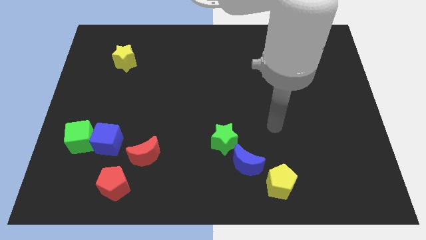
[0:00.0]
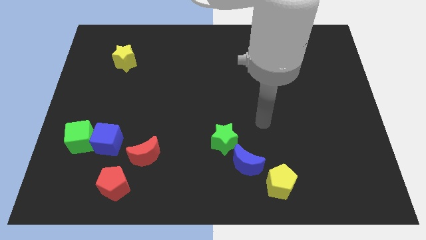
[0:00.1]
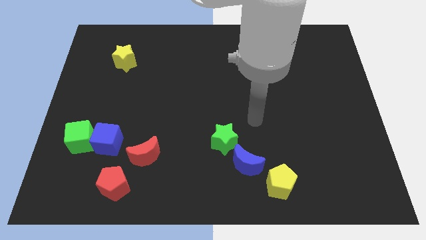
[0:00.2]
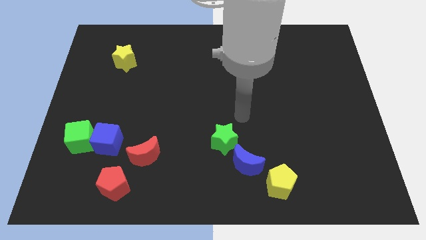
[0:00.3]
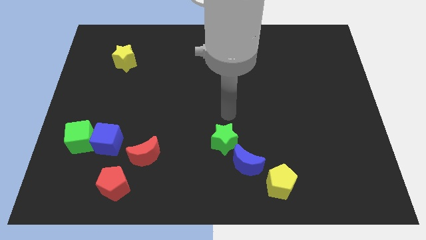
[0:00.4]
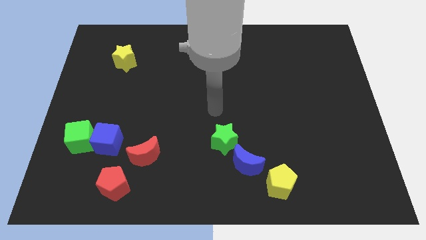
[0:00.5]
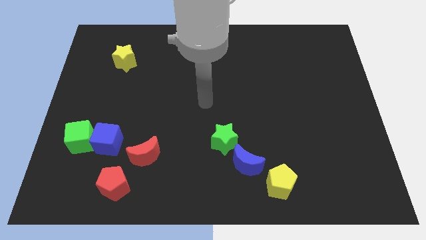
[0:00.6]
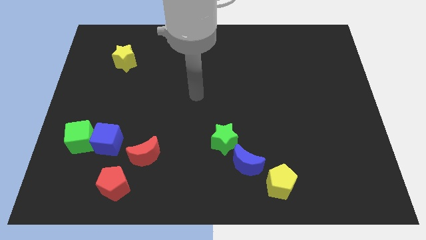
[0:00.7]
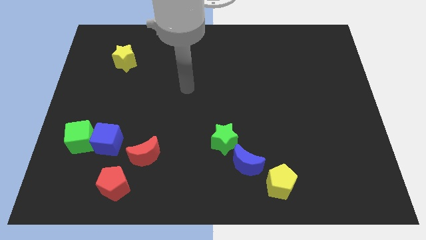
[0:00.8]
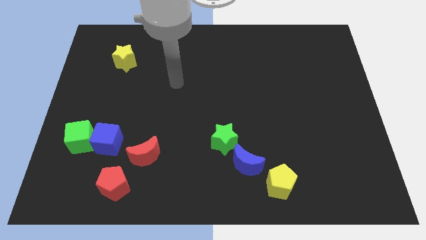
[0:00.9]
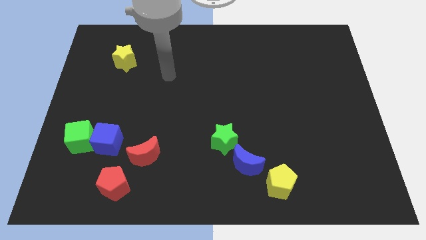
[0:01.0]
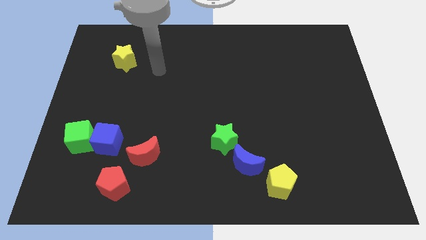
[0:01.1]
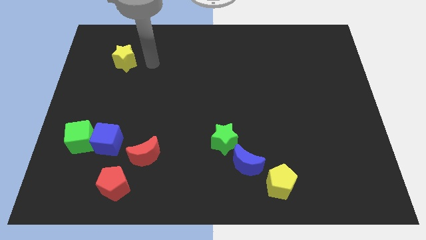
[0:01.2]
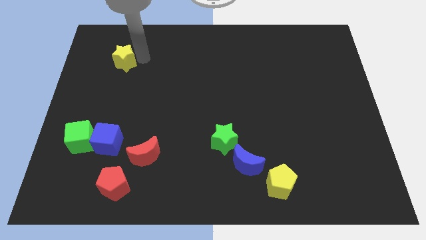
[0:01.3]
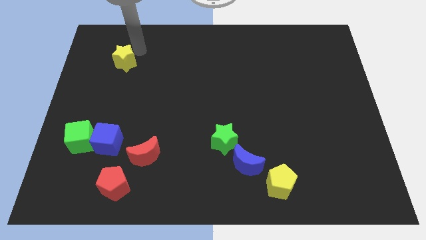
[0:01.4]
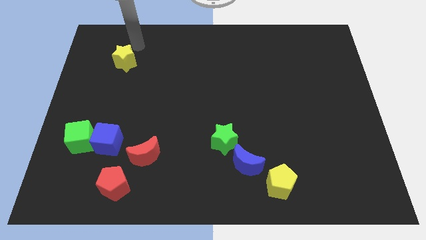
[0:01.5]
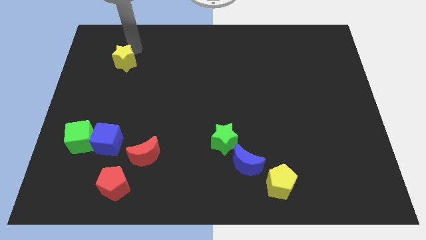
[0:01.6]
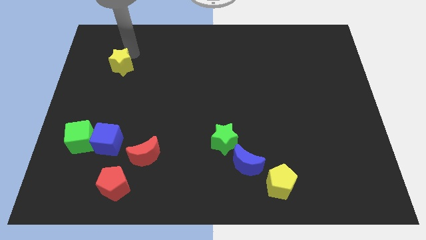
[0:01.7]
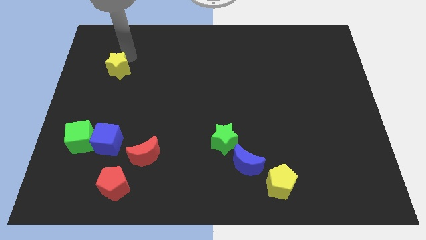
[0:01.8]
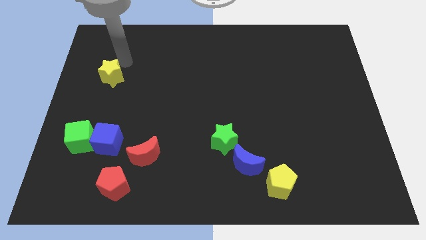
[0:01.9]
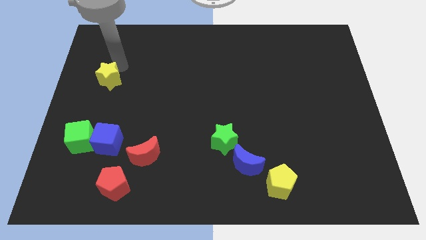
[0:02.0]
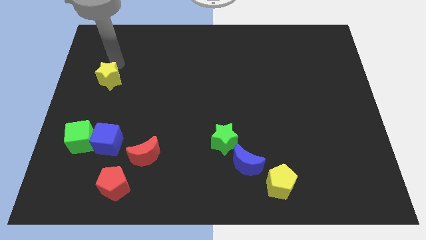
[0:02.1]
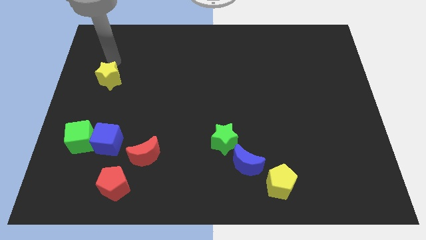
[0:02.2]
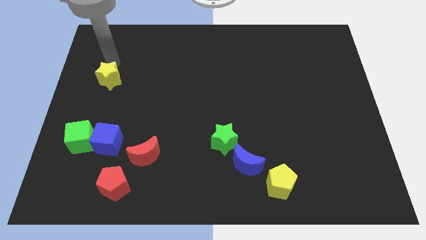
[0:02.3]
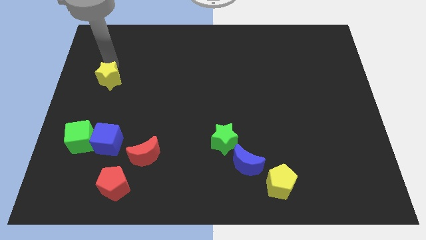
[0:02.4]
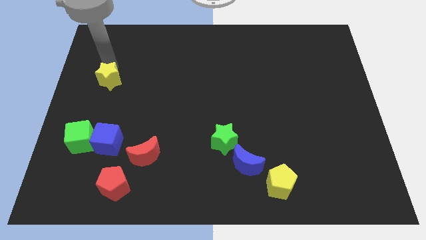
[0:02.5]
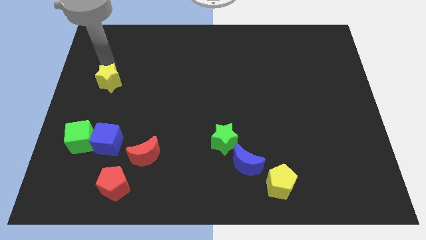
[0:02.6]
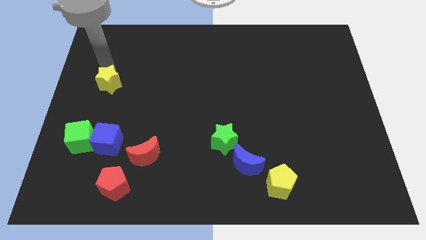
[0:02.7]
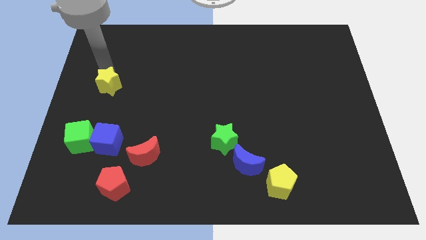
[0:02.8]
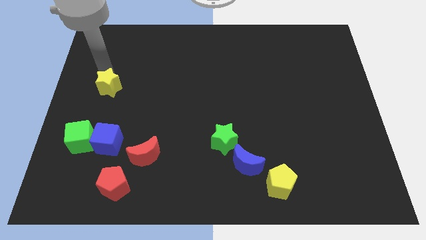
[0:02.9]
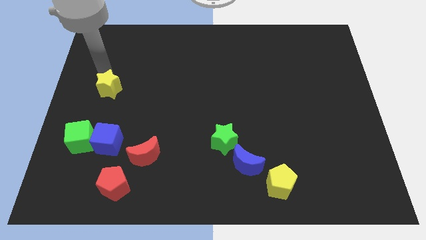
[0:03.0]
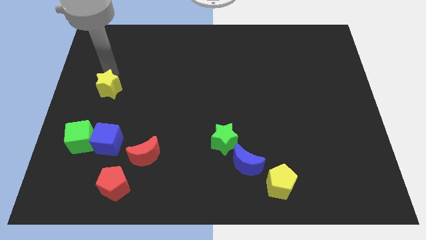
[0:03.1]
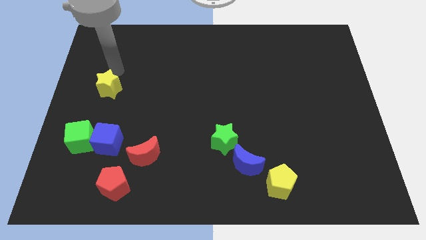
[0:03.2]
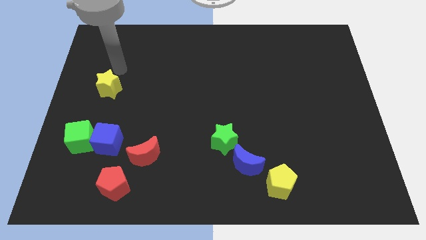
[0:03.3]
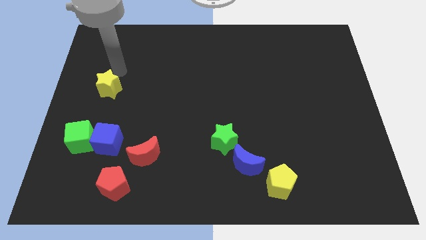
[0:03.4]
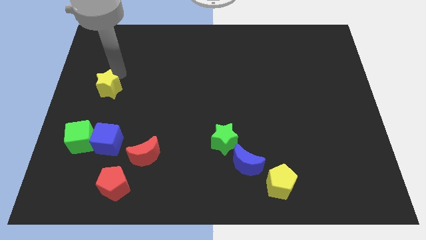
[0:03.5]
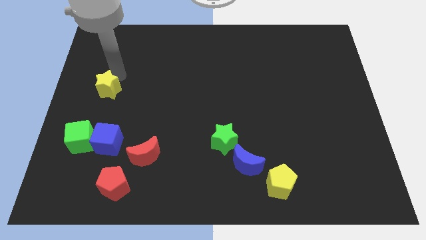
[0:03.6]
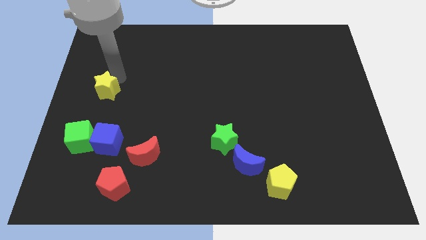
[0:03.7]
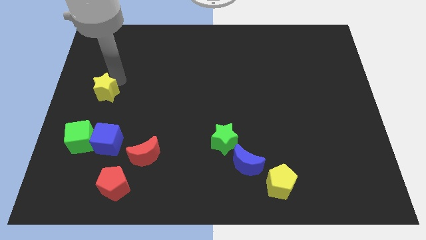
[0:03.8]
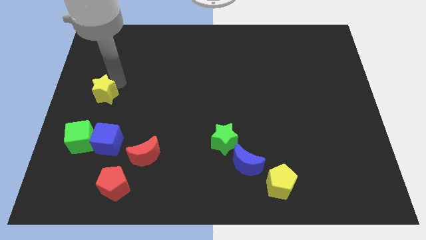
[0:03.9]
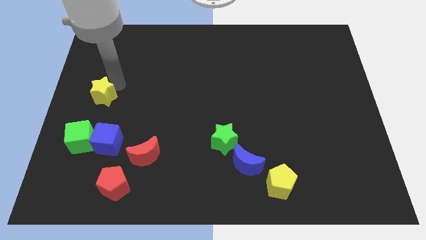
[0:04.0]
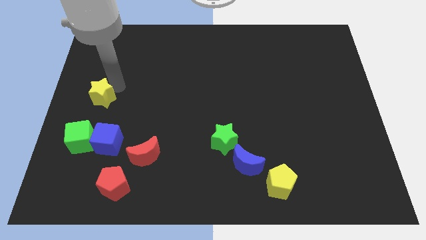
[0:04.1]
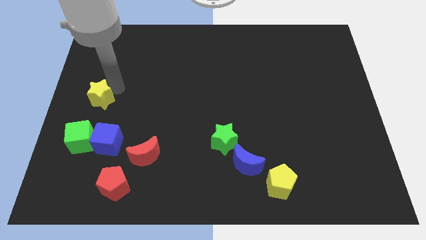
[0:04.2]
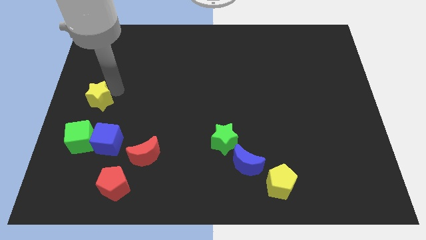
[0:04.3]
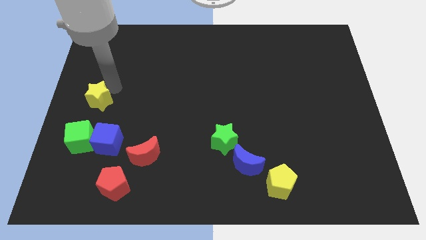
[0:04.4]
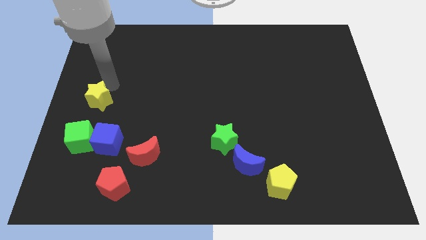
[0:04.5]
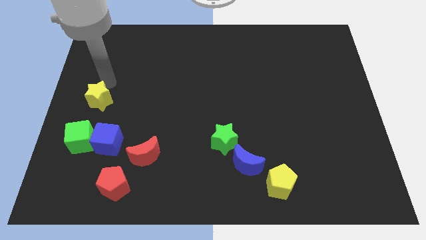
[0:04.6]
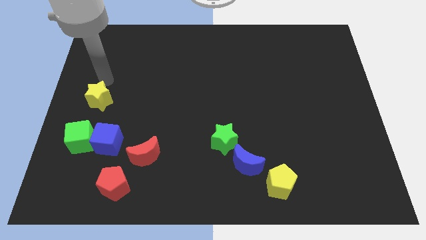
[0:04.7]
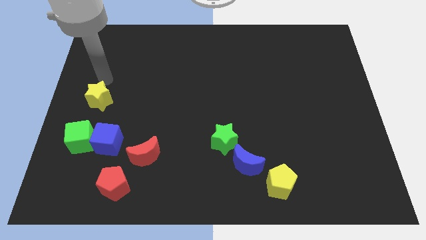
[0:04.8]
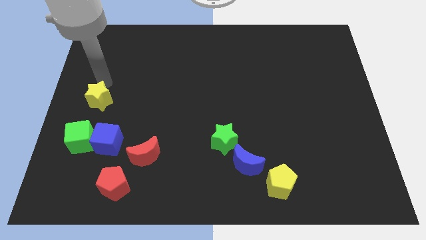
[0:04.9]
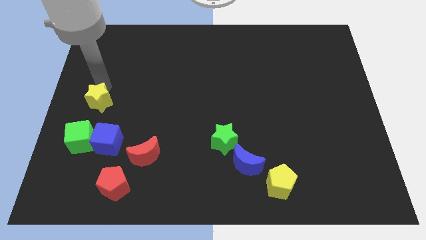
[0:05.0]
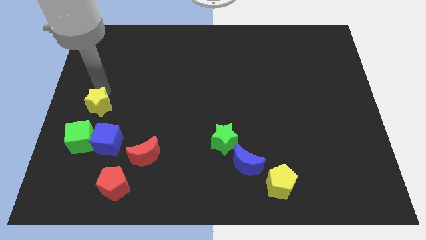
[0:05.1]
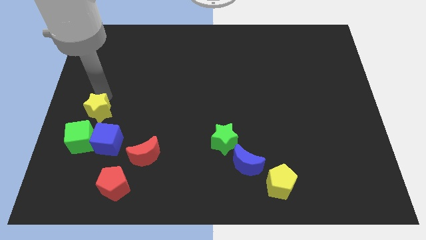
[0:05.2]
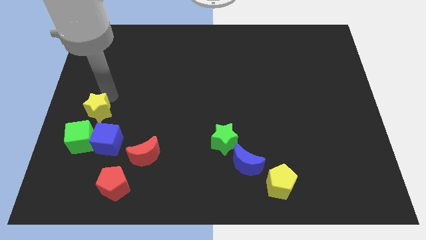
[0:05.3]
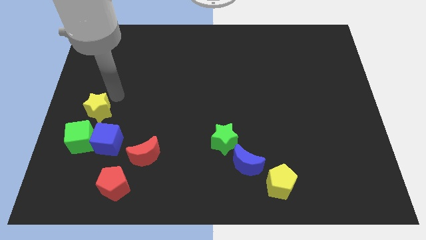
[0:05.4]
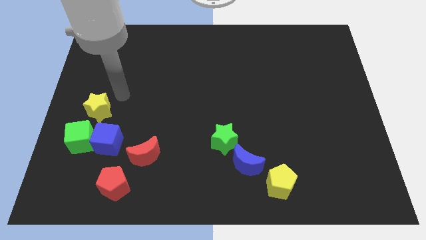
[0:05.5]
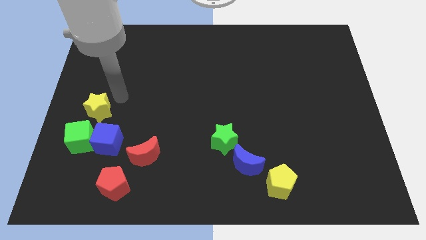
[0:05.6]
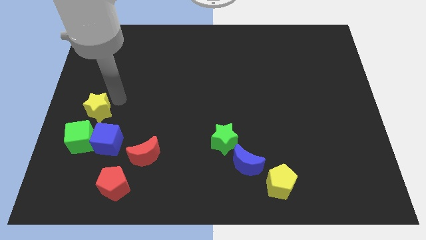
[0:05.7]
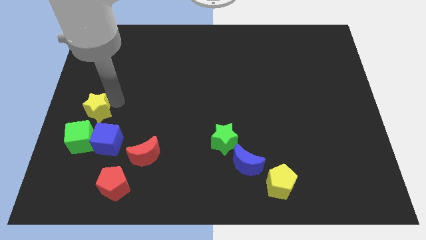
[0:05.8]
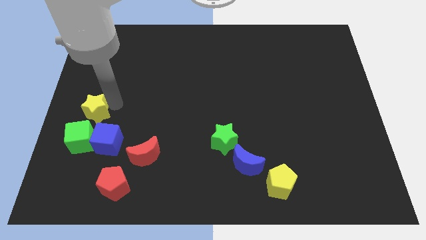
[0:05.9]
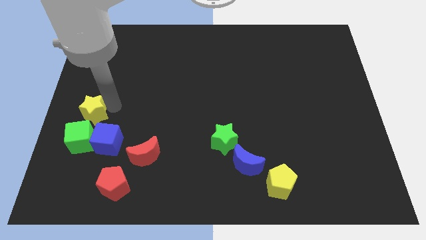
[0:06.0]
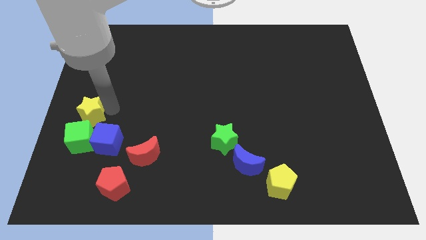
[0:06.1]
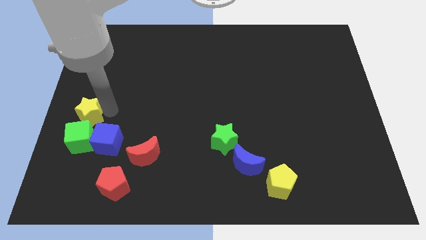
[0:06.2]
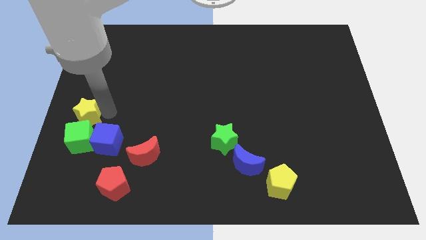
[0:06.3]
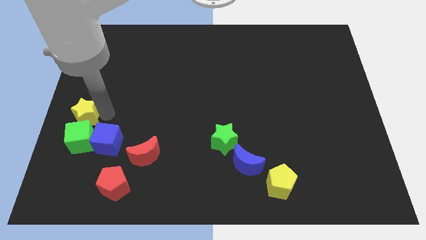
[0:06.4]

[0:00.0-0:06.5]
move the yellow star towards the green cube

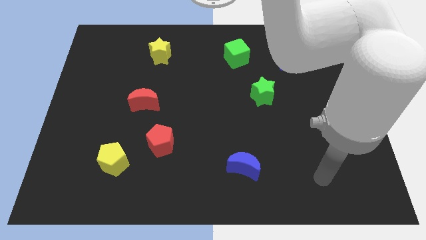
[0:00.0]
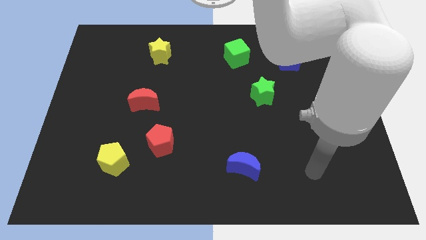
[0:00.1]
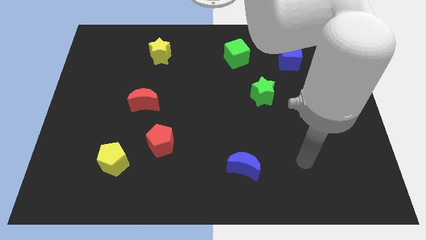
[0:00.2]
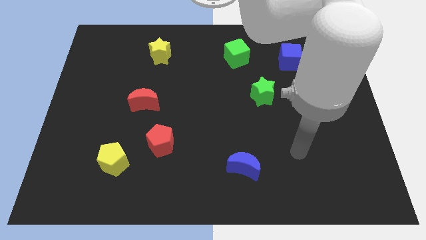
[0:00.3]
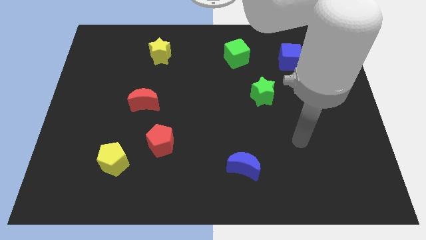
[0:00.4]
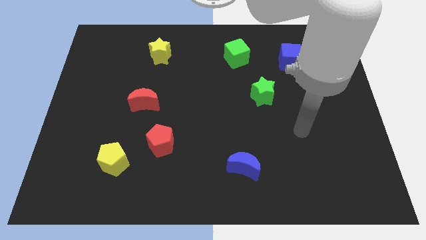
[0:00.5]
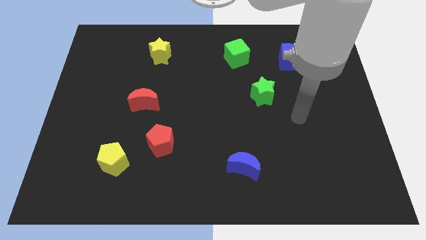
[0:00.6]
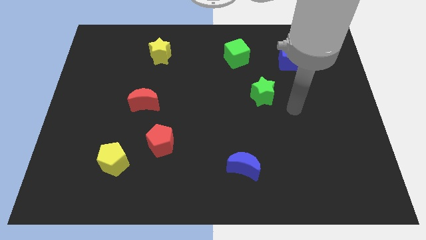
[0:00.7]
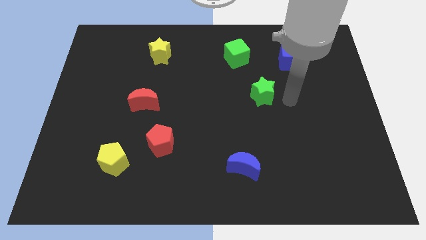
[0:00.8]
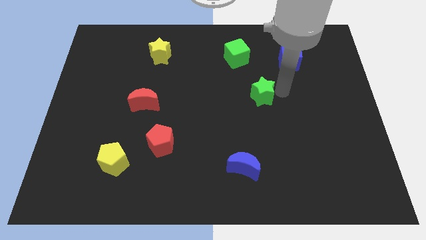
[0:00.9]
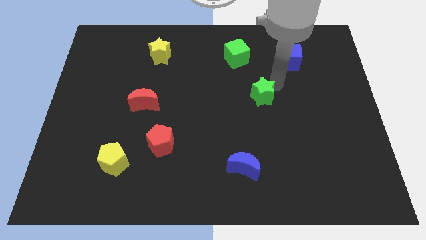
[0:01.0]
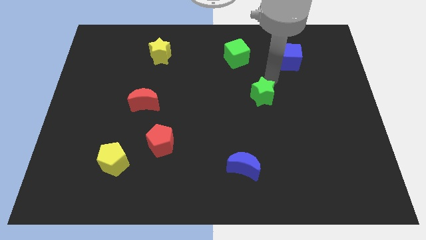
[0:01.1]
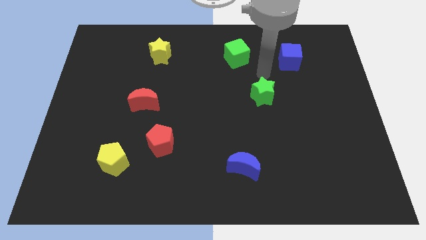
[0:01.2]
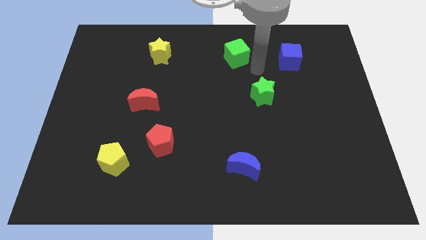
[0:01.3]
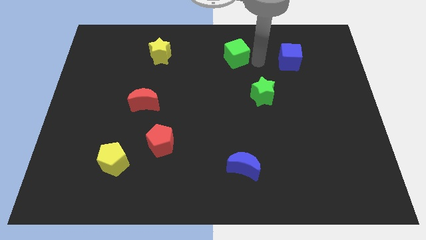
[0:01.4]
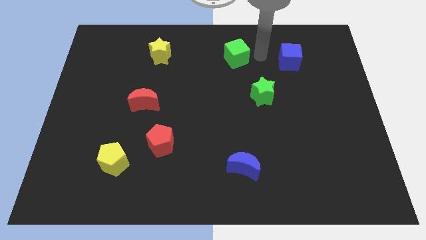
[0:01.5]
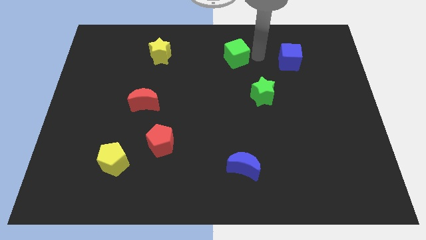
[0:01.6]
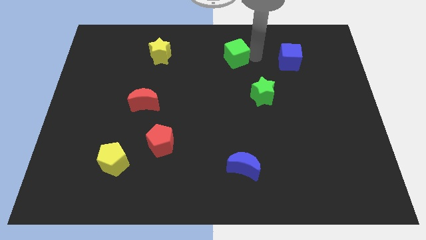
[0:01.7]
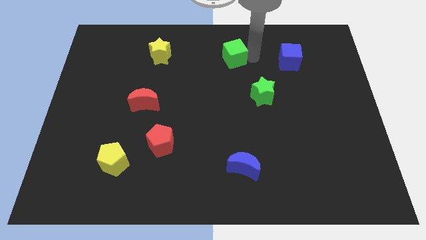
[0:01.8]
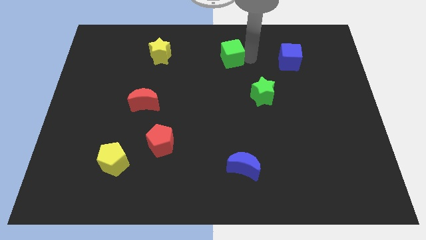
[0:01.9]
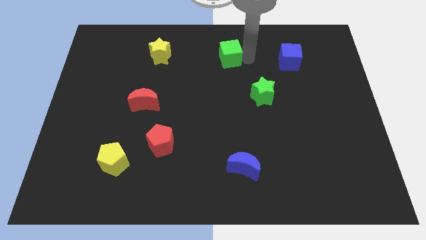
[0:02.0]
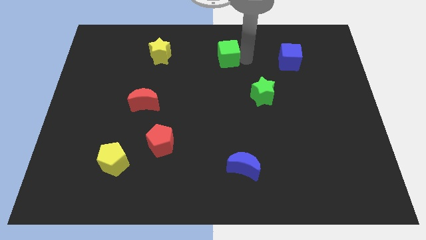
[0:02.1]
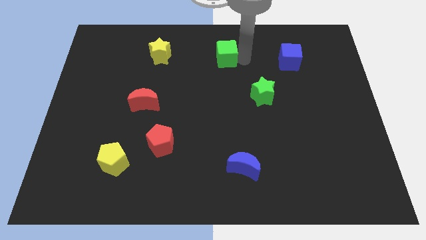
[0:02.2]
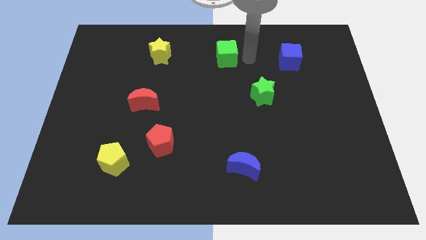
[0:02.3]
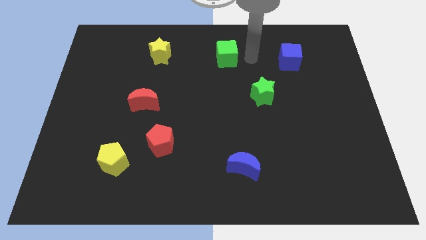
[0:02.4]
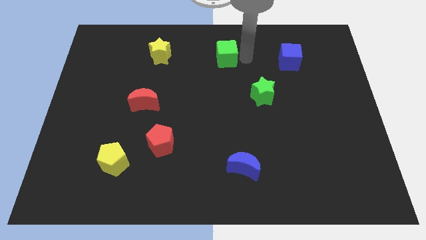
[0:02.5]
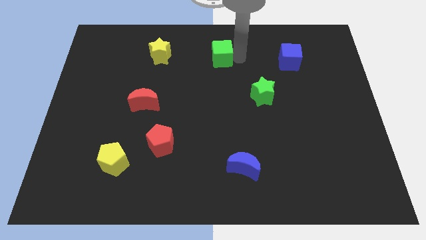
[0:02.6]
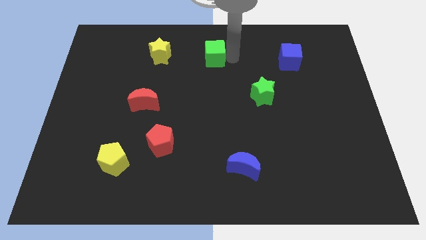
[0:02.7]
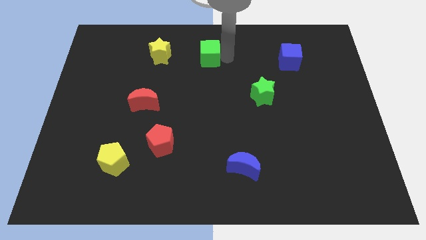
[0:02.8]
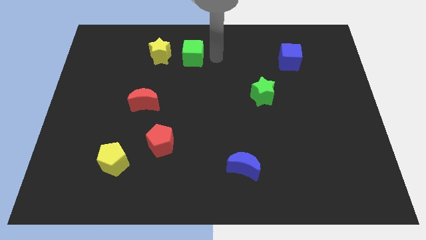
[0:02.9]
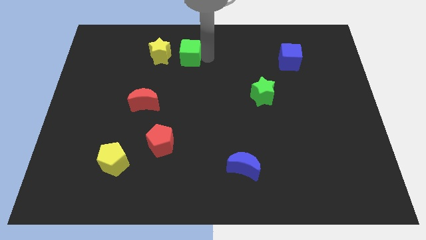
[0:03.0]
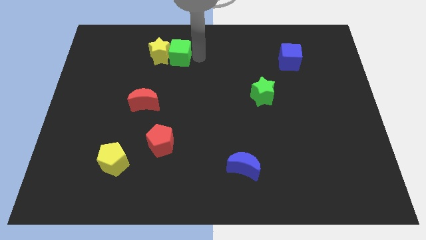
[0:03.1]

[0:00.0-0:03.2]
slide the green cube next to the yellow star
